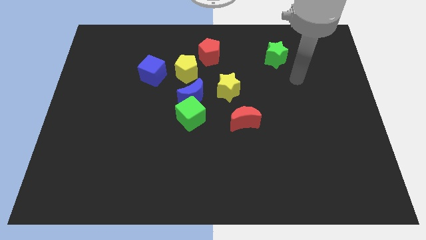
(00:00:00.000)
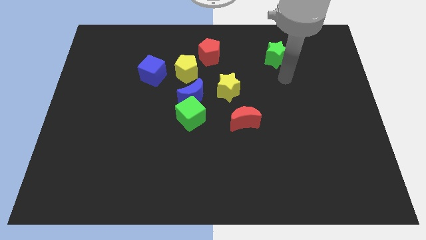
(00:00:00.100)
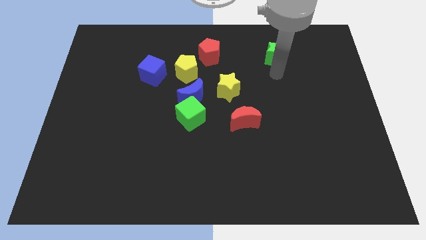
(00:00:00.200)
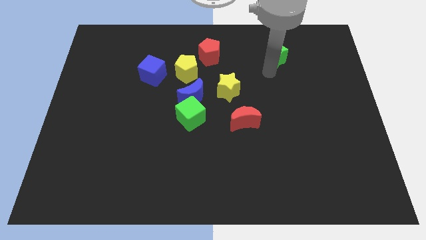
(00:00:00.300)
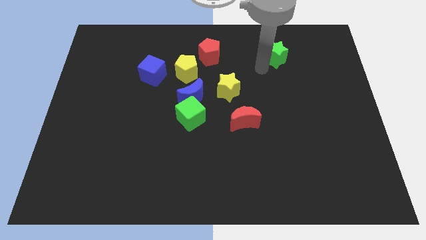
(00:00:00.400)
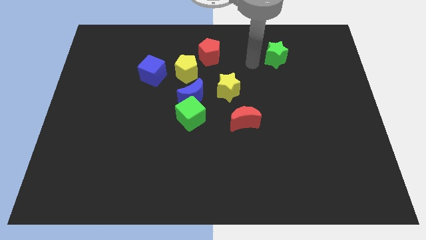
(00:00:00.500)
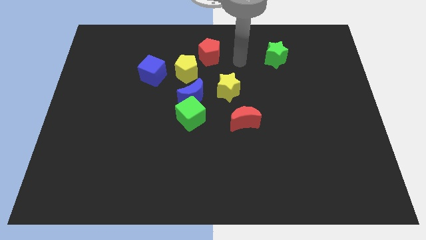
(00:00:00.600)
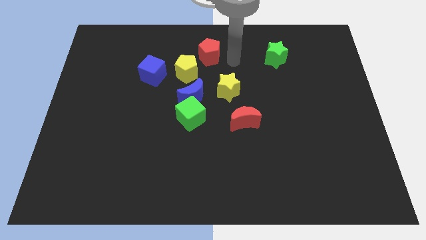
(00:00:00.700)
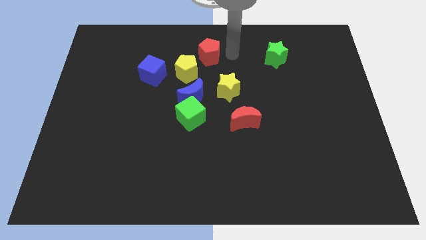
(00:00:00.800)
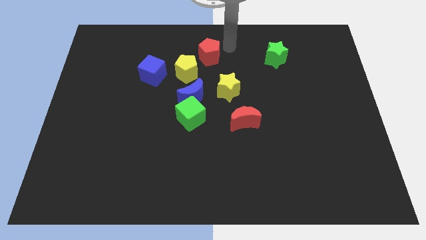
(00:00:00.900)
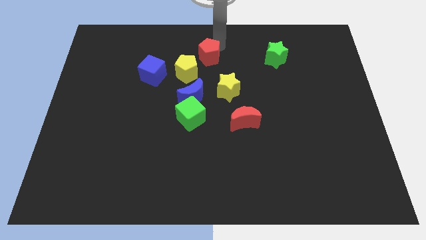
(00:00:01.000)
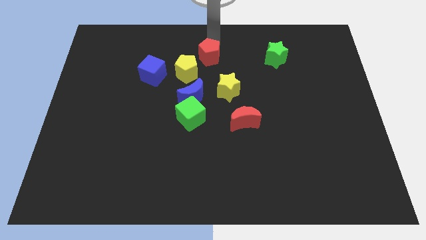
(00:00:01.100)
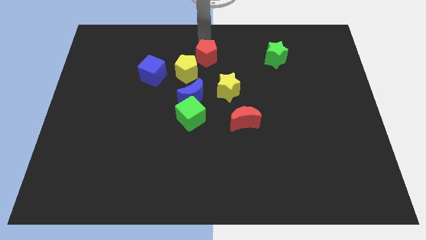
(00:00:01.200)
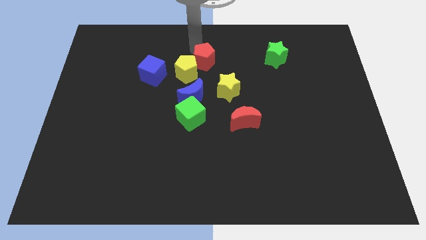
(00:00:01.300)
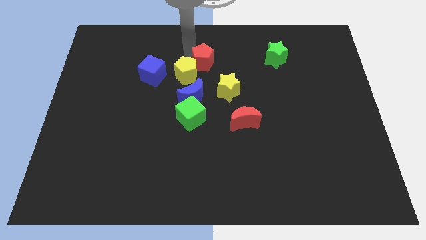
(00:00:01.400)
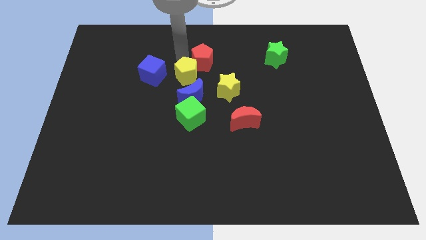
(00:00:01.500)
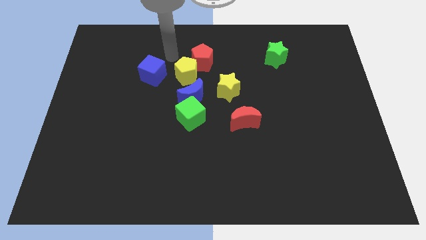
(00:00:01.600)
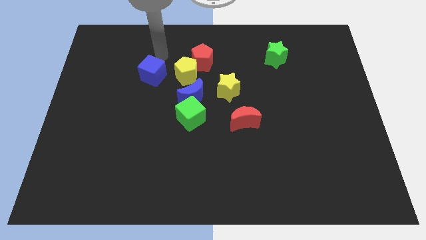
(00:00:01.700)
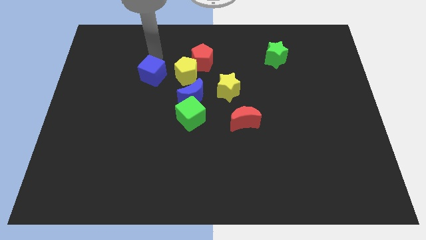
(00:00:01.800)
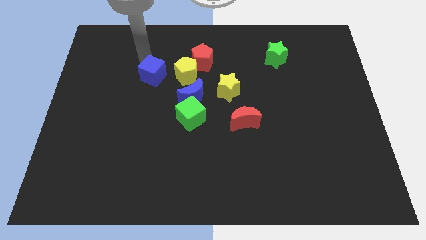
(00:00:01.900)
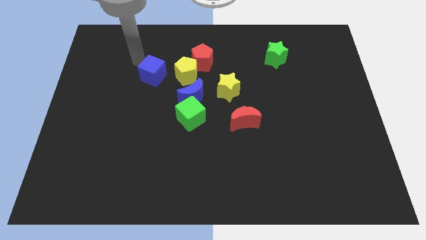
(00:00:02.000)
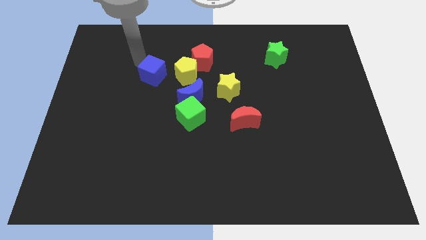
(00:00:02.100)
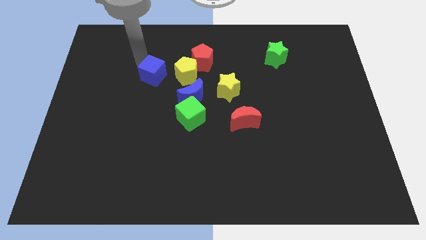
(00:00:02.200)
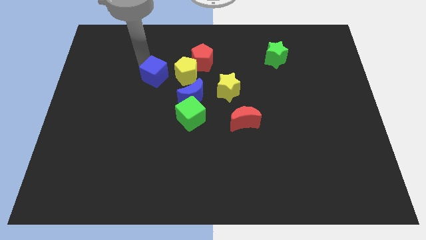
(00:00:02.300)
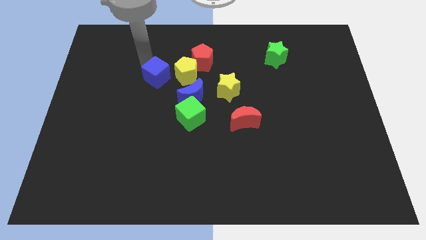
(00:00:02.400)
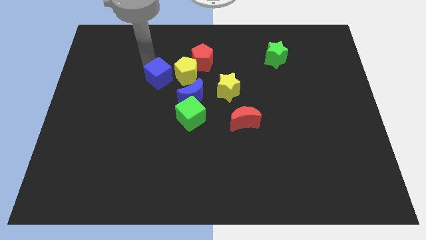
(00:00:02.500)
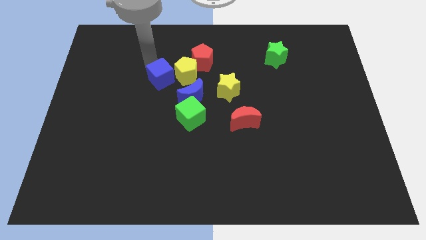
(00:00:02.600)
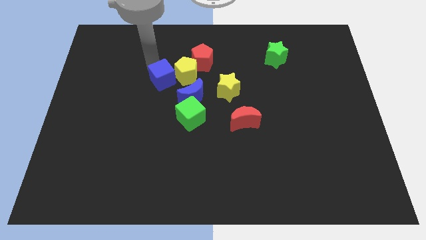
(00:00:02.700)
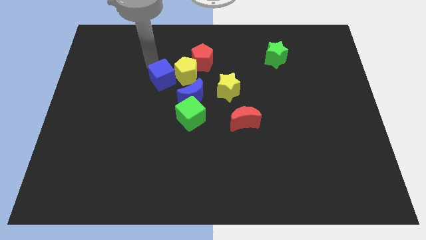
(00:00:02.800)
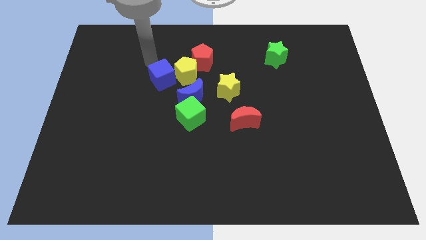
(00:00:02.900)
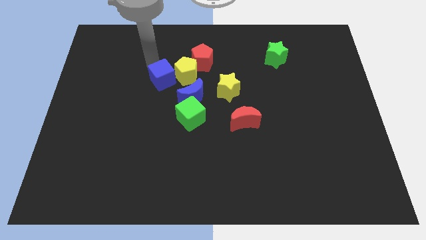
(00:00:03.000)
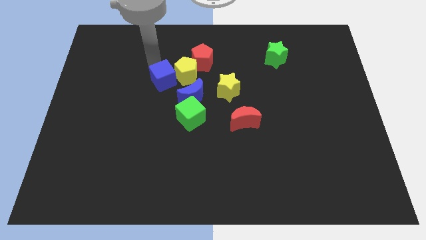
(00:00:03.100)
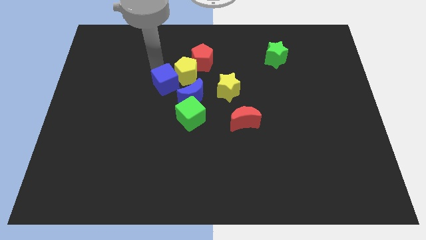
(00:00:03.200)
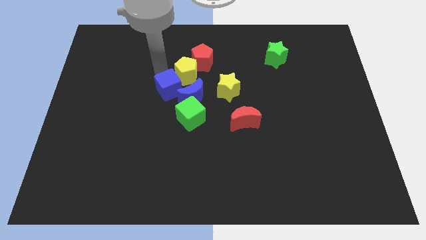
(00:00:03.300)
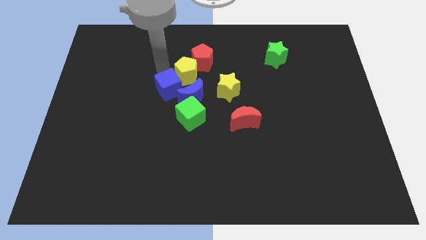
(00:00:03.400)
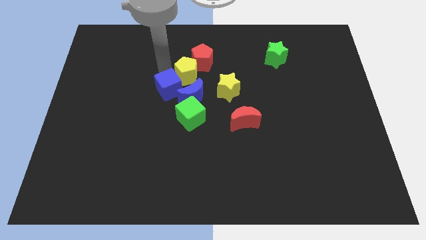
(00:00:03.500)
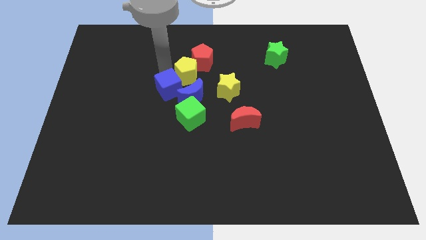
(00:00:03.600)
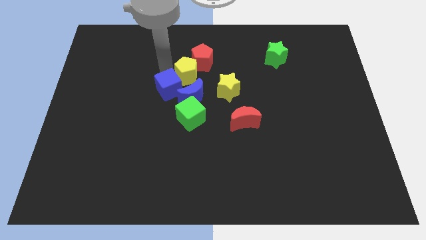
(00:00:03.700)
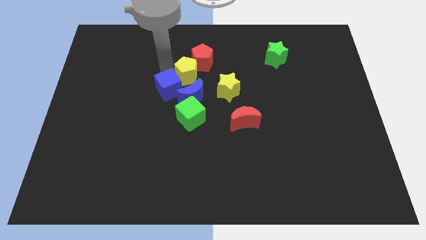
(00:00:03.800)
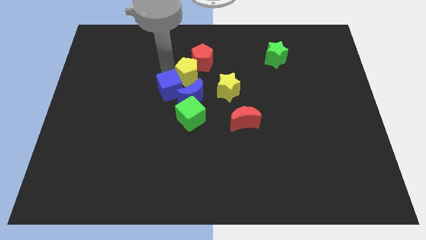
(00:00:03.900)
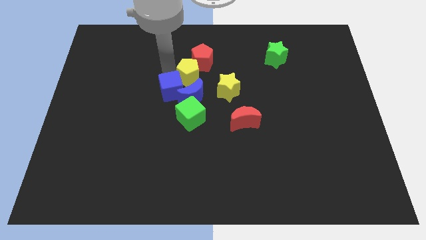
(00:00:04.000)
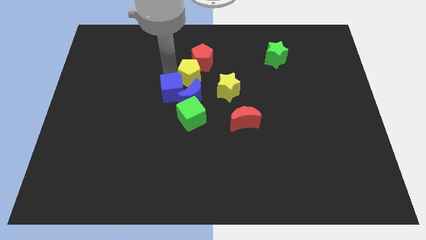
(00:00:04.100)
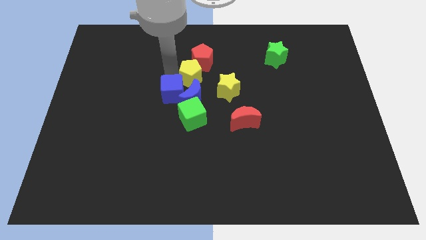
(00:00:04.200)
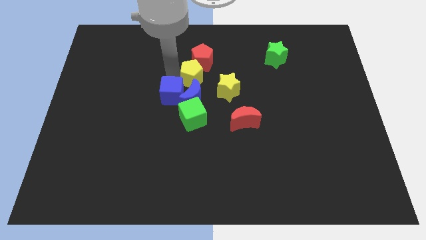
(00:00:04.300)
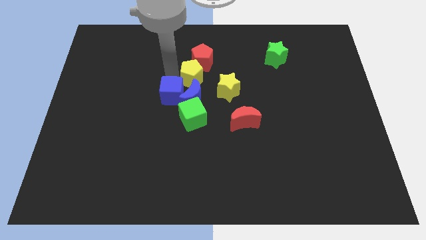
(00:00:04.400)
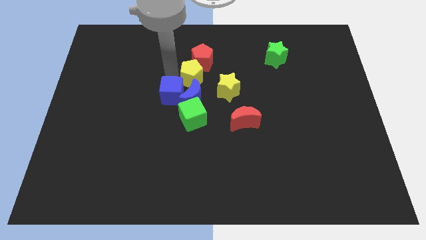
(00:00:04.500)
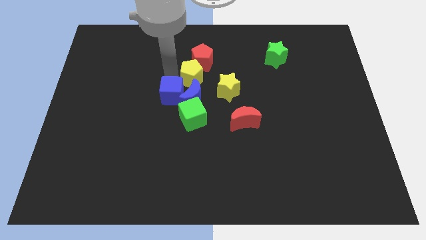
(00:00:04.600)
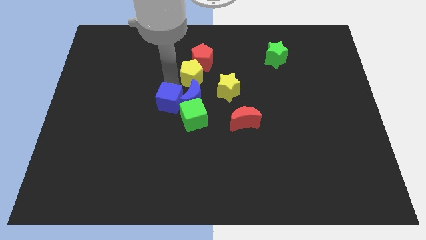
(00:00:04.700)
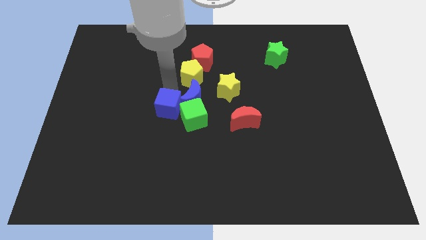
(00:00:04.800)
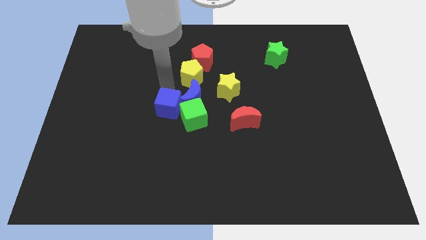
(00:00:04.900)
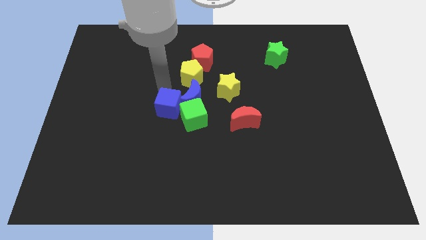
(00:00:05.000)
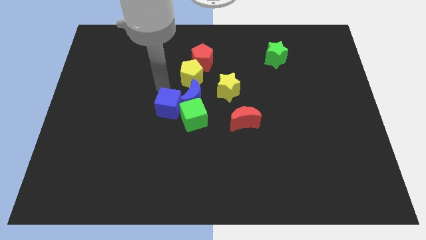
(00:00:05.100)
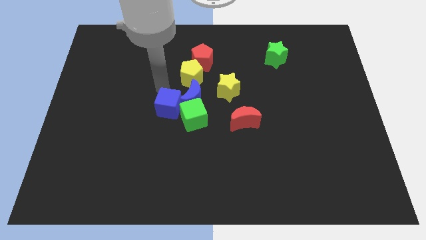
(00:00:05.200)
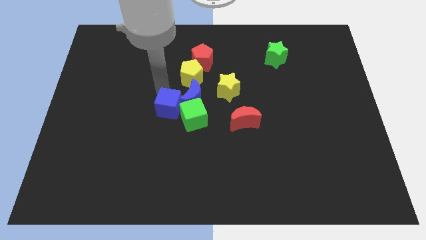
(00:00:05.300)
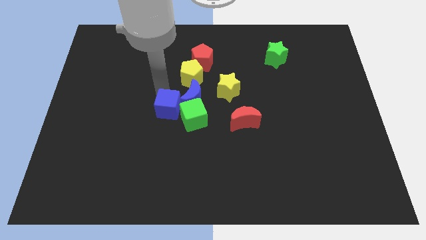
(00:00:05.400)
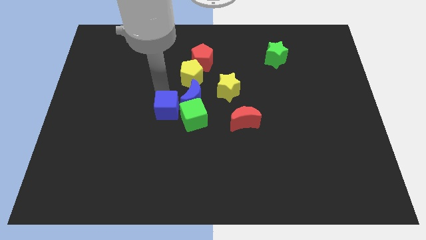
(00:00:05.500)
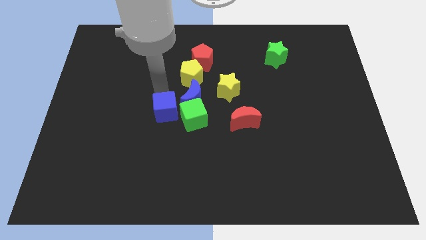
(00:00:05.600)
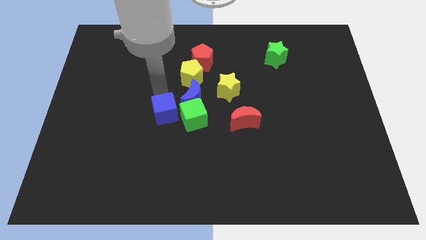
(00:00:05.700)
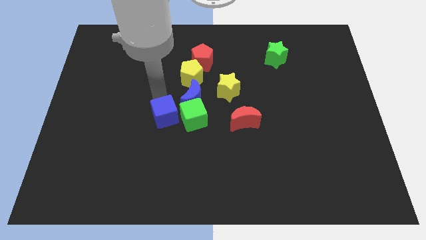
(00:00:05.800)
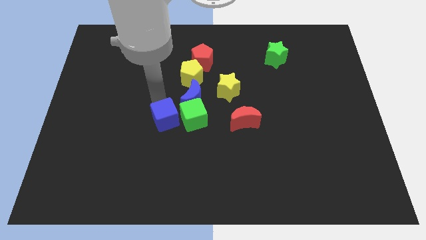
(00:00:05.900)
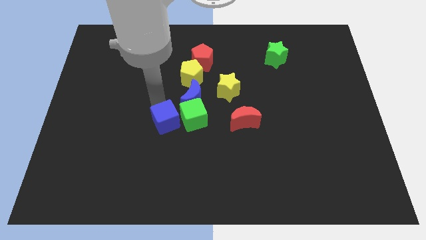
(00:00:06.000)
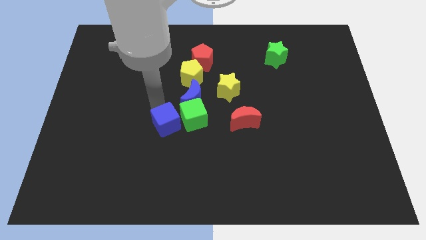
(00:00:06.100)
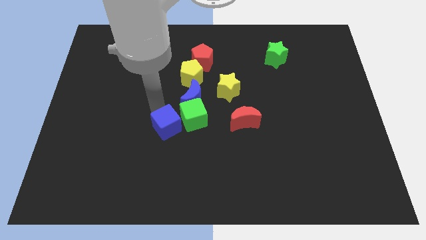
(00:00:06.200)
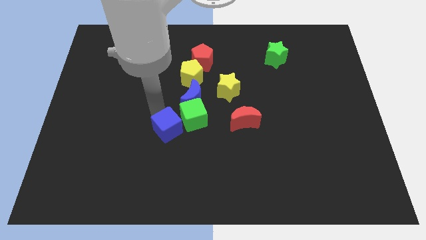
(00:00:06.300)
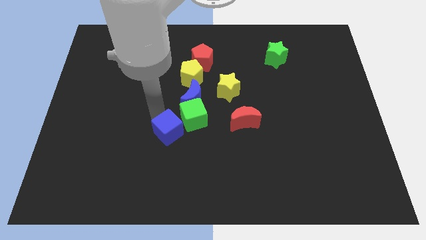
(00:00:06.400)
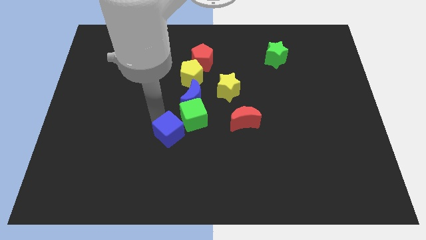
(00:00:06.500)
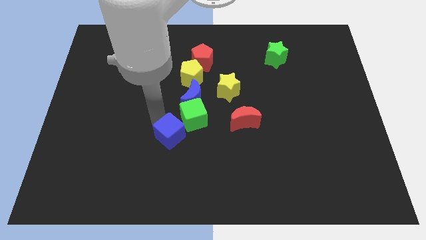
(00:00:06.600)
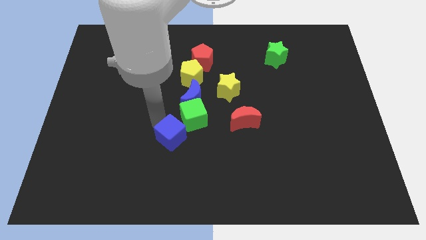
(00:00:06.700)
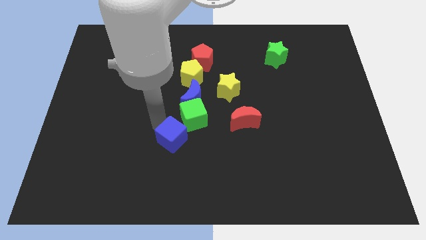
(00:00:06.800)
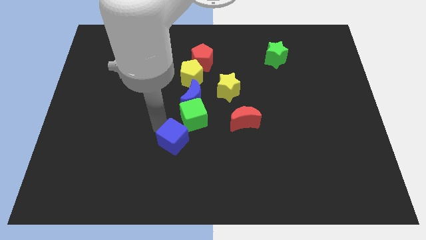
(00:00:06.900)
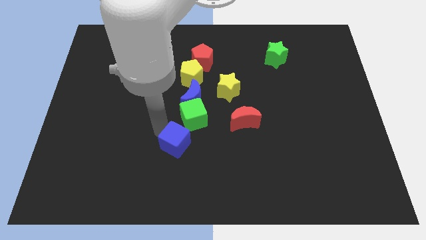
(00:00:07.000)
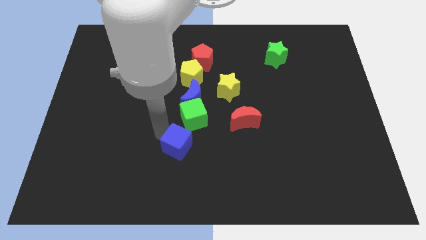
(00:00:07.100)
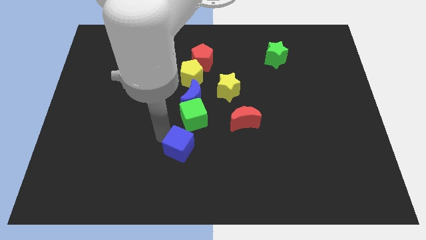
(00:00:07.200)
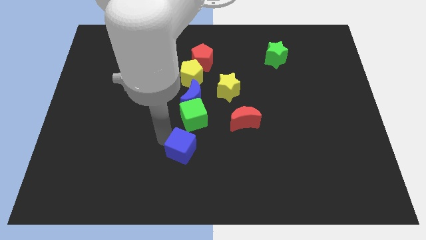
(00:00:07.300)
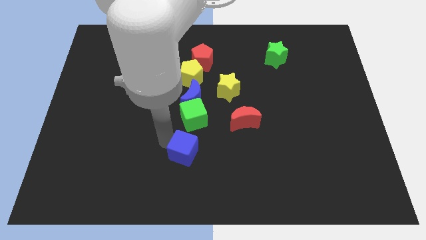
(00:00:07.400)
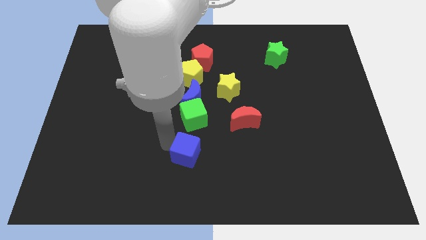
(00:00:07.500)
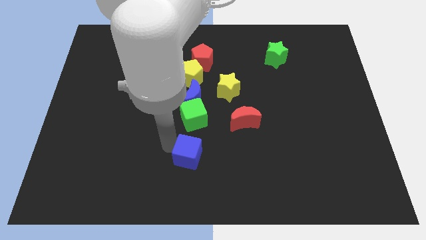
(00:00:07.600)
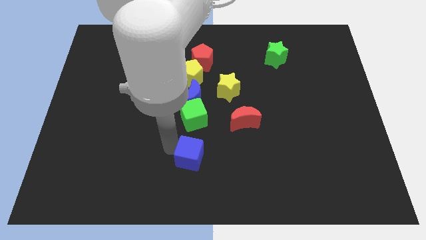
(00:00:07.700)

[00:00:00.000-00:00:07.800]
slide the blue cube down and then to the right
